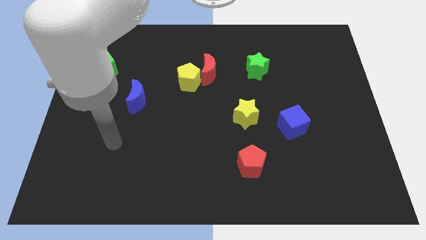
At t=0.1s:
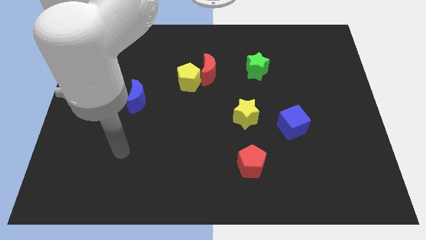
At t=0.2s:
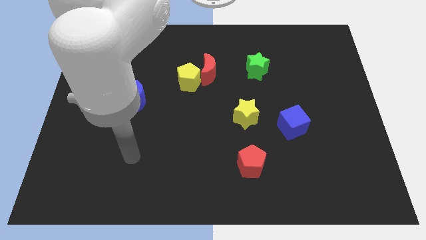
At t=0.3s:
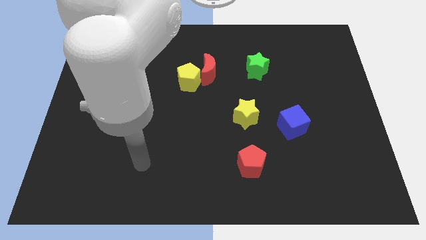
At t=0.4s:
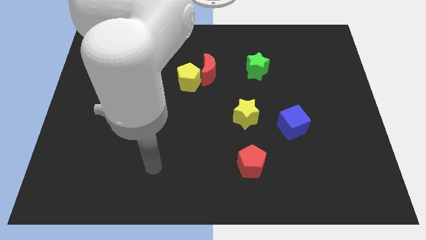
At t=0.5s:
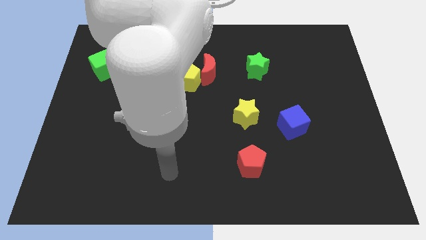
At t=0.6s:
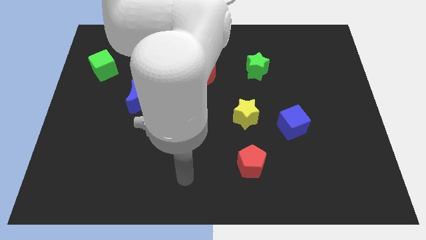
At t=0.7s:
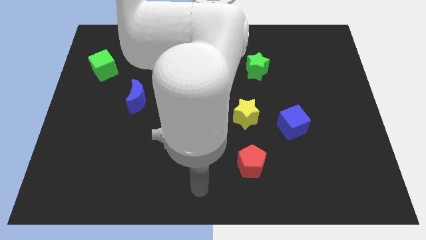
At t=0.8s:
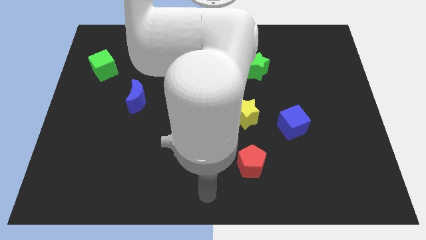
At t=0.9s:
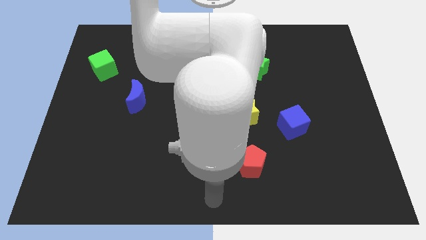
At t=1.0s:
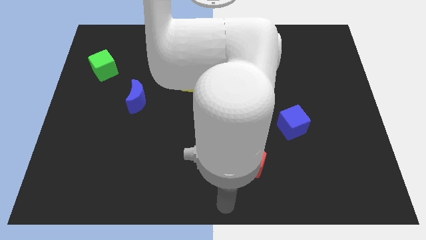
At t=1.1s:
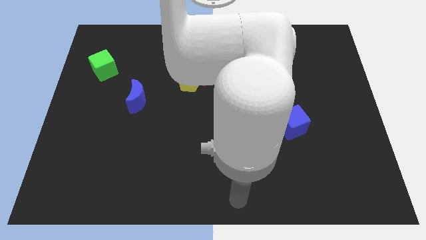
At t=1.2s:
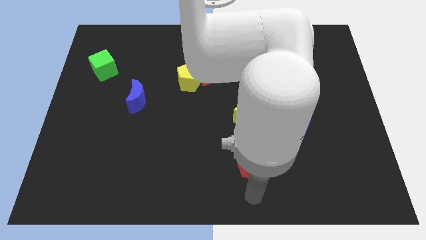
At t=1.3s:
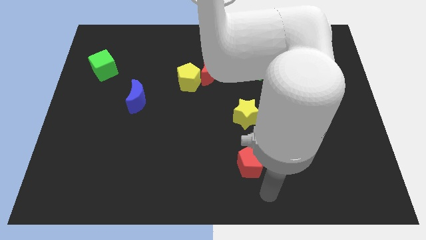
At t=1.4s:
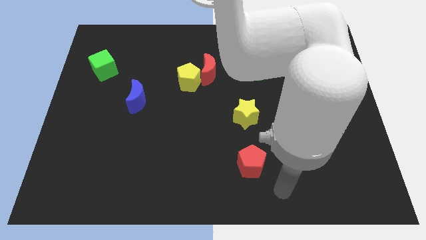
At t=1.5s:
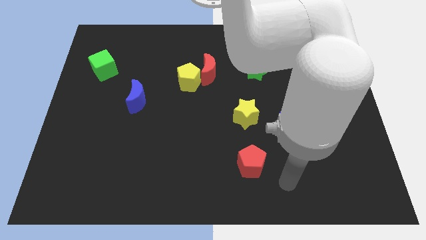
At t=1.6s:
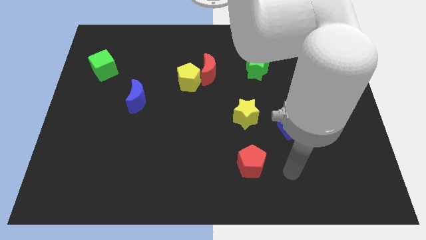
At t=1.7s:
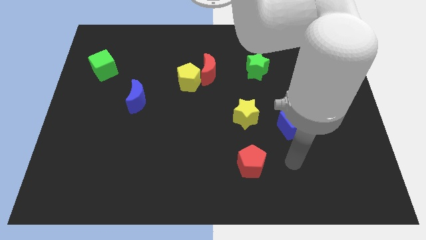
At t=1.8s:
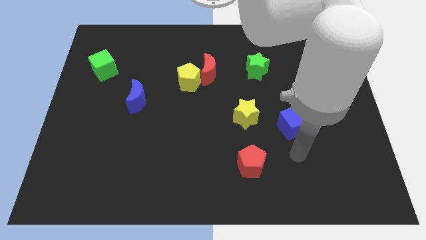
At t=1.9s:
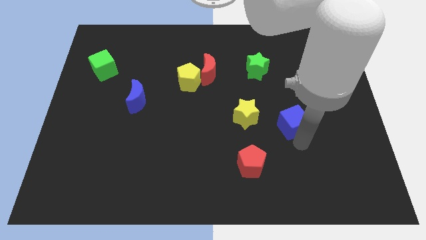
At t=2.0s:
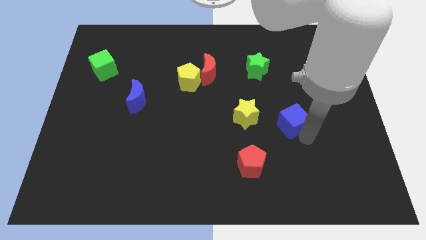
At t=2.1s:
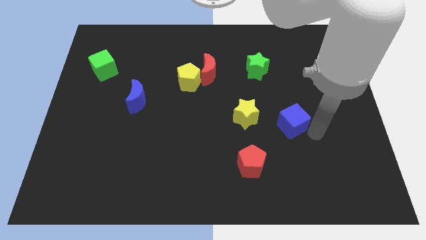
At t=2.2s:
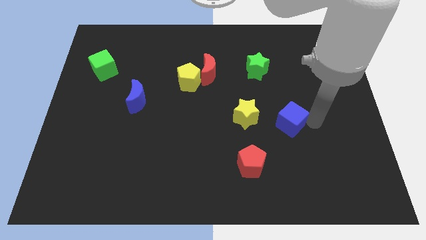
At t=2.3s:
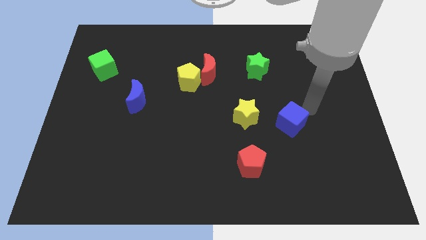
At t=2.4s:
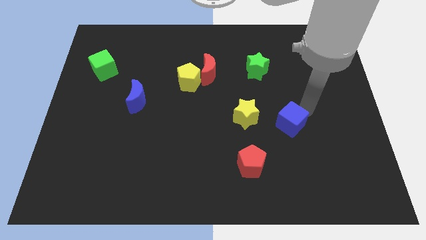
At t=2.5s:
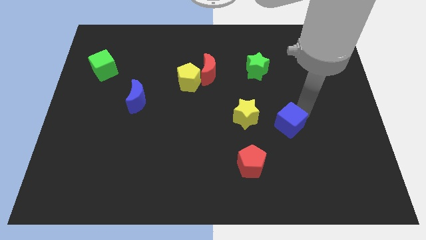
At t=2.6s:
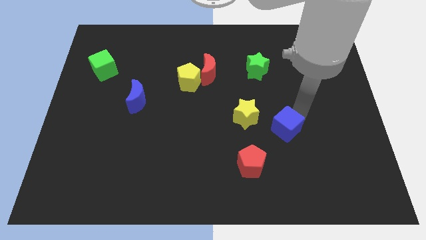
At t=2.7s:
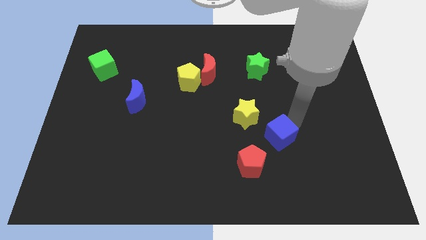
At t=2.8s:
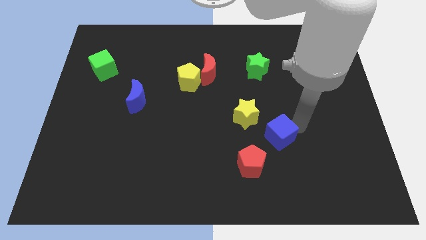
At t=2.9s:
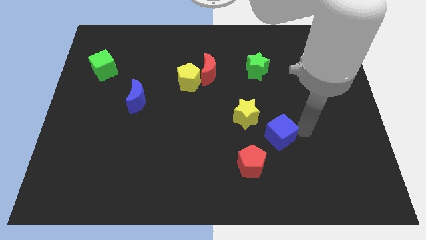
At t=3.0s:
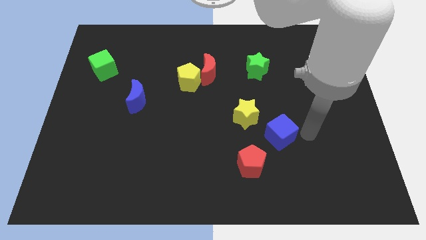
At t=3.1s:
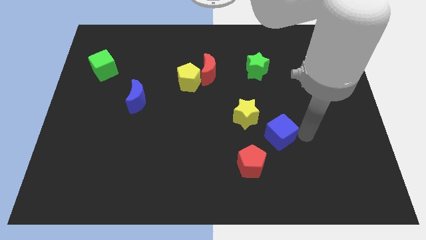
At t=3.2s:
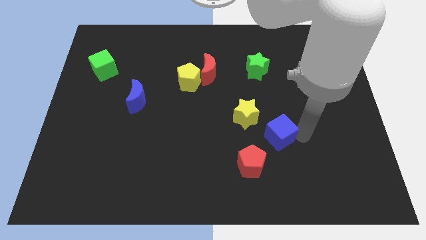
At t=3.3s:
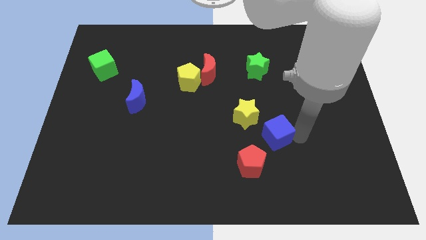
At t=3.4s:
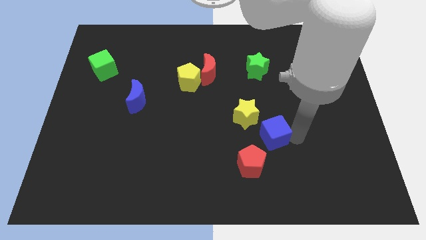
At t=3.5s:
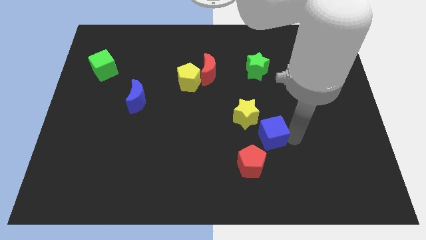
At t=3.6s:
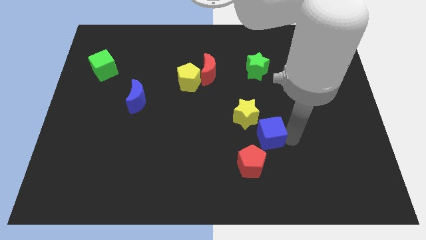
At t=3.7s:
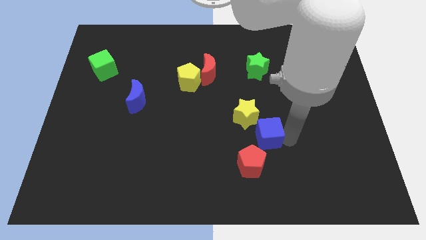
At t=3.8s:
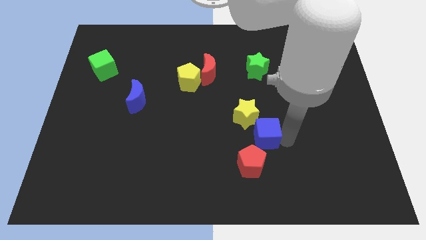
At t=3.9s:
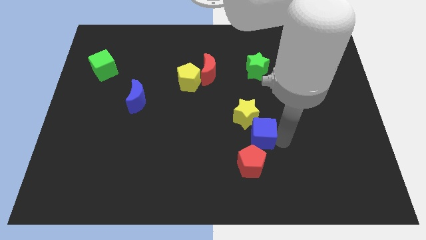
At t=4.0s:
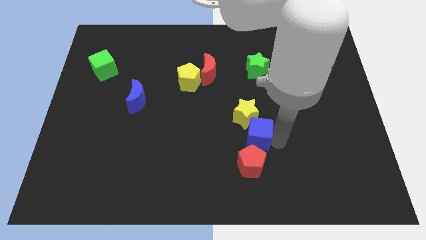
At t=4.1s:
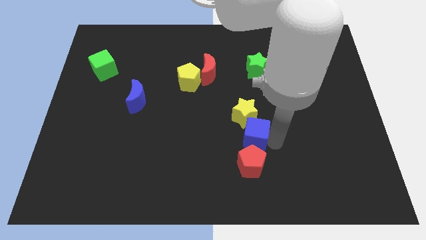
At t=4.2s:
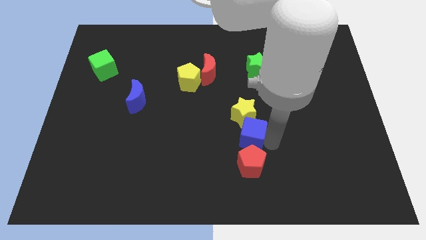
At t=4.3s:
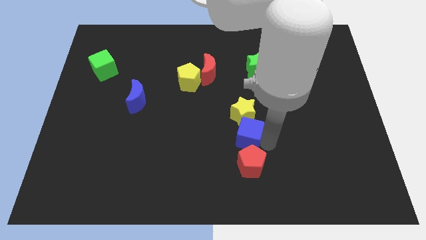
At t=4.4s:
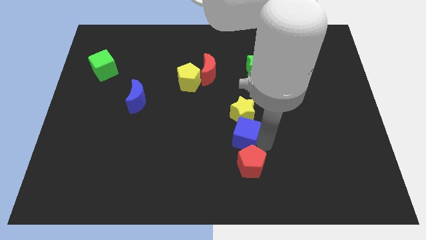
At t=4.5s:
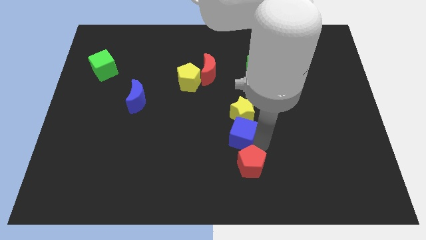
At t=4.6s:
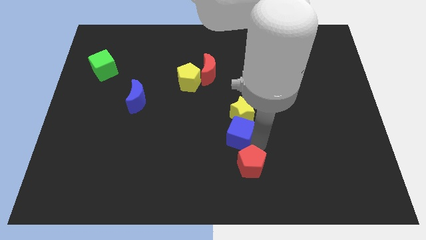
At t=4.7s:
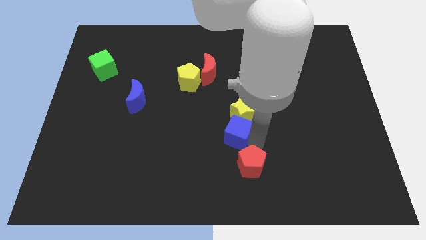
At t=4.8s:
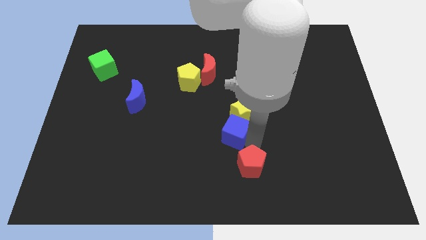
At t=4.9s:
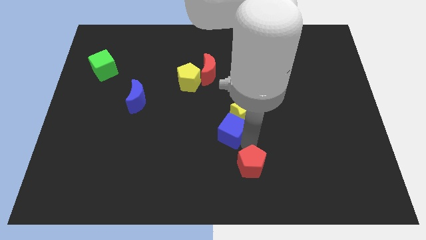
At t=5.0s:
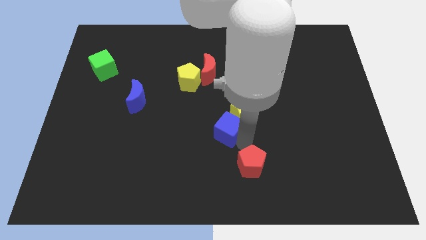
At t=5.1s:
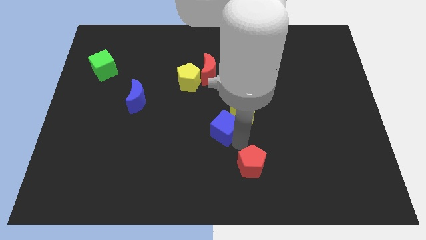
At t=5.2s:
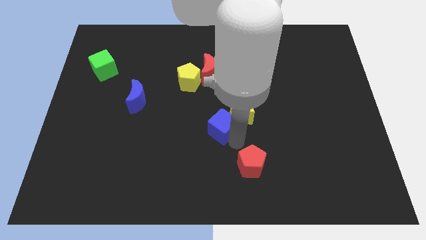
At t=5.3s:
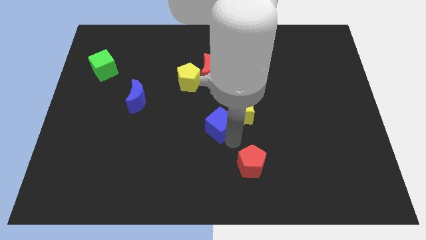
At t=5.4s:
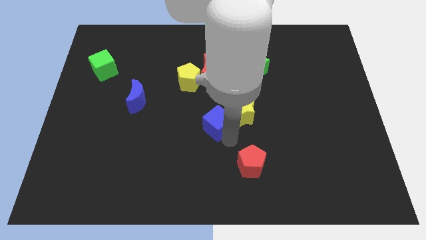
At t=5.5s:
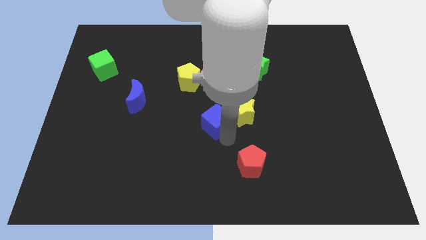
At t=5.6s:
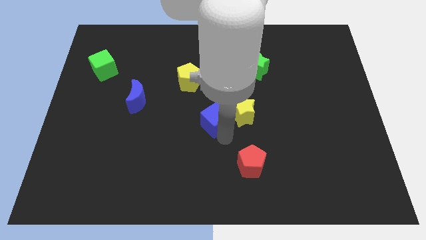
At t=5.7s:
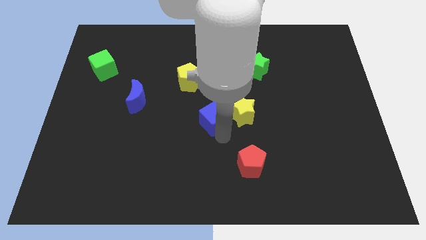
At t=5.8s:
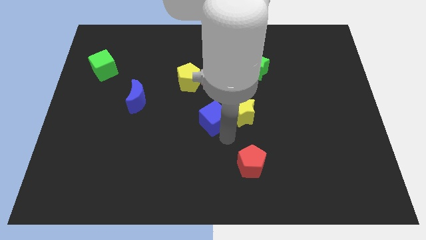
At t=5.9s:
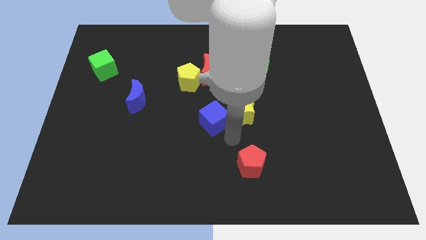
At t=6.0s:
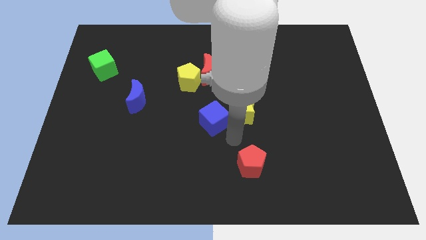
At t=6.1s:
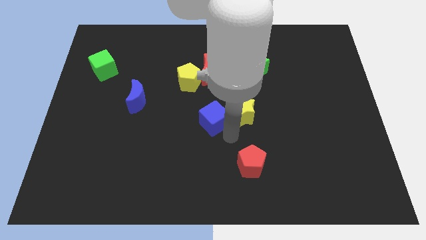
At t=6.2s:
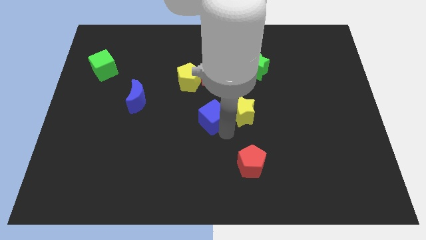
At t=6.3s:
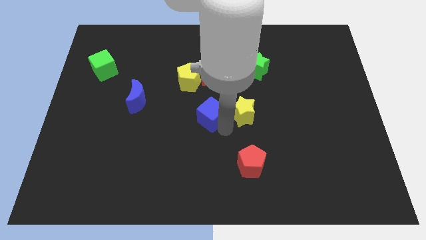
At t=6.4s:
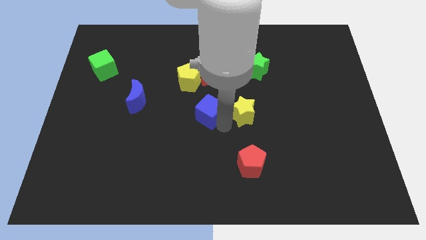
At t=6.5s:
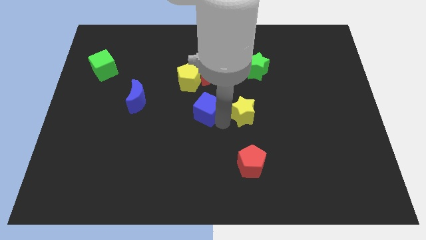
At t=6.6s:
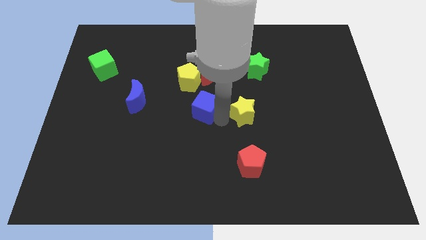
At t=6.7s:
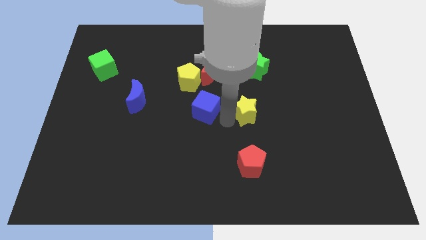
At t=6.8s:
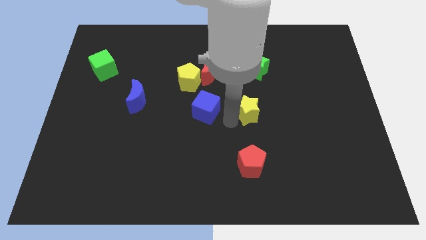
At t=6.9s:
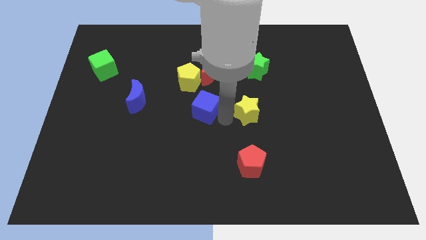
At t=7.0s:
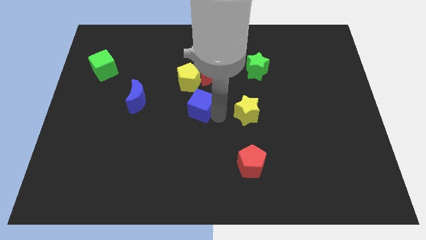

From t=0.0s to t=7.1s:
slide the blue cube to the right of the blue moon

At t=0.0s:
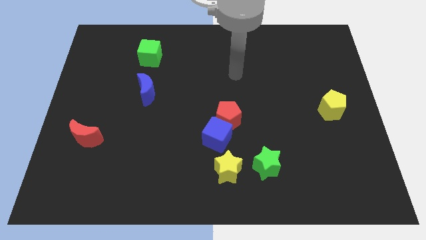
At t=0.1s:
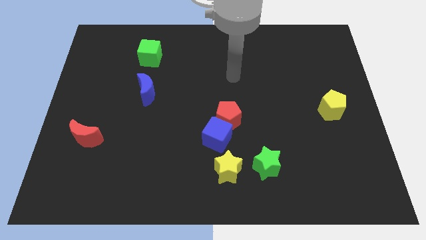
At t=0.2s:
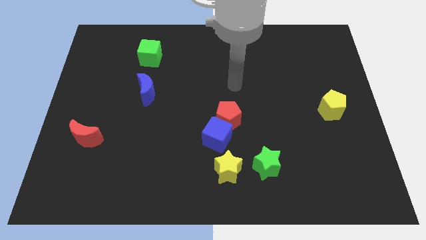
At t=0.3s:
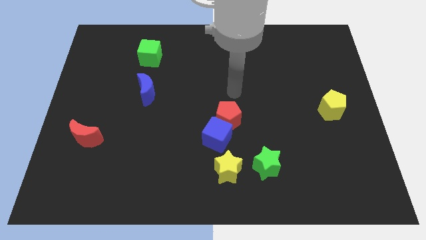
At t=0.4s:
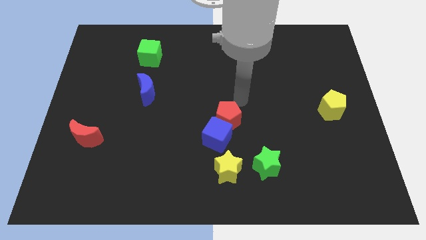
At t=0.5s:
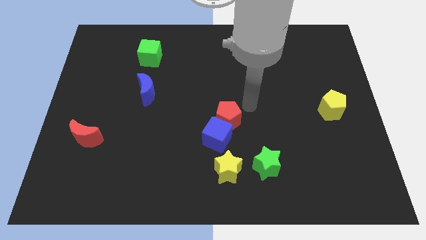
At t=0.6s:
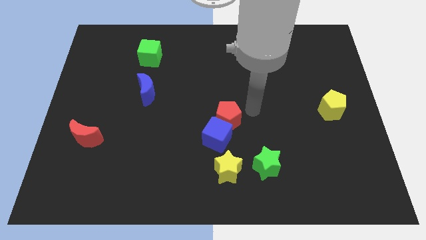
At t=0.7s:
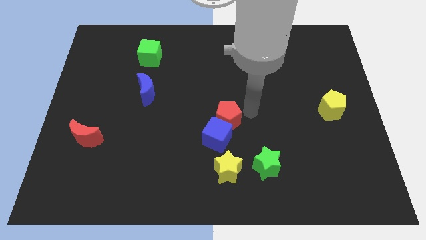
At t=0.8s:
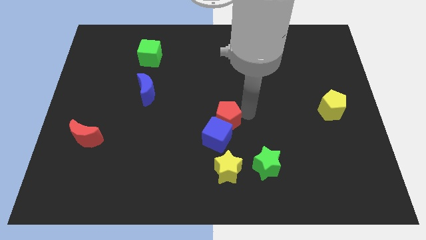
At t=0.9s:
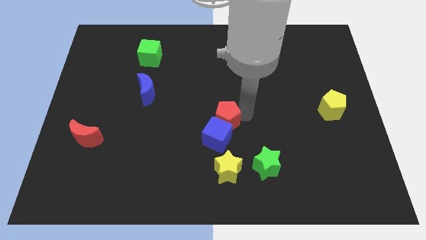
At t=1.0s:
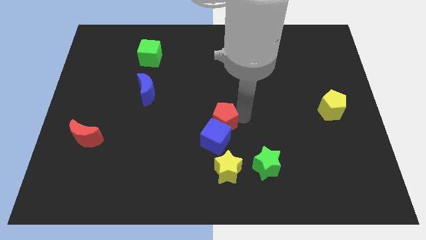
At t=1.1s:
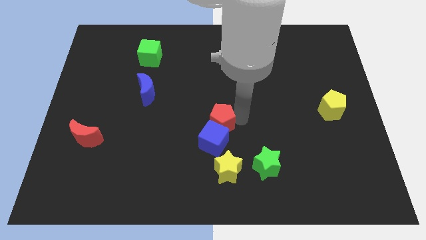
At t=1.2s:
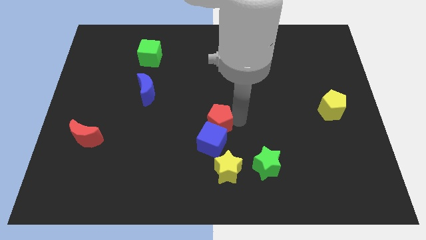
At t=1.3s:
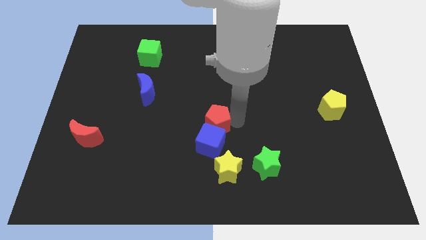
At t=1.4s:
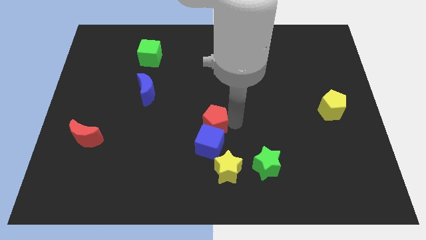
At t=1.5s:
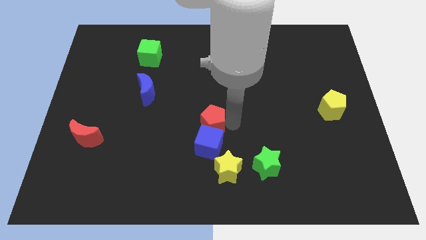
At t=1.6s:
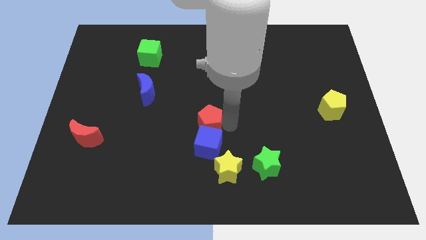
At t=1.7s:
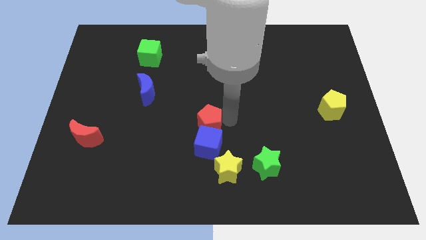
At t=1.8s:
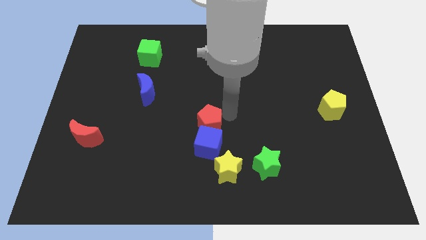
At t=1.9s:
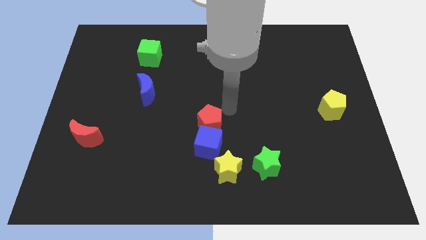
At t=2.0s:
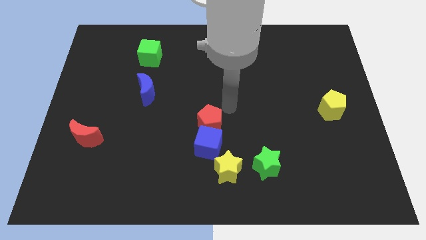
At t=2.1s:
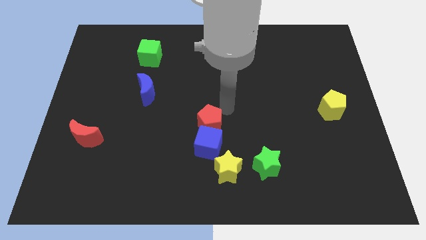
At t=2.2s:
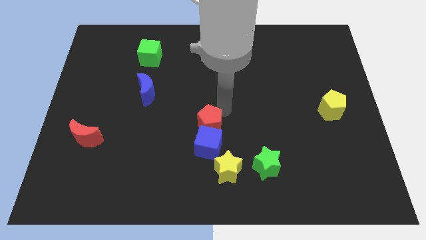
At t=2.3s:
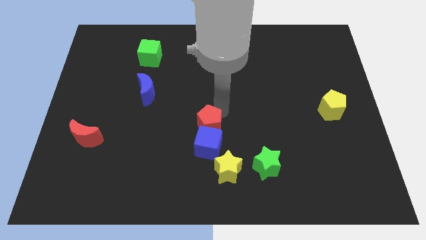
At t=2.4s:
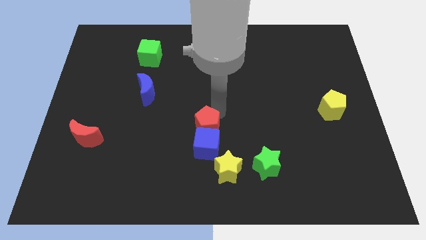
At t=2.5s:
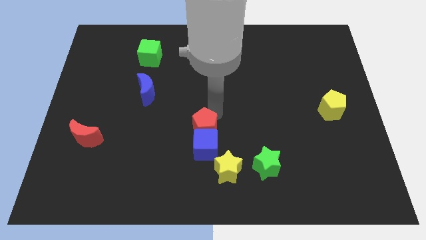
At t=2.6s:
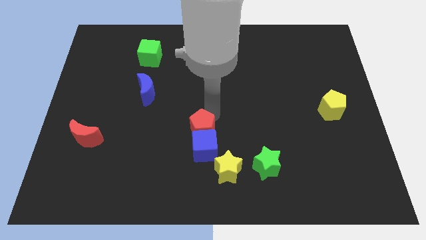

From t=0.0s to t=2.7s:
push the red pentagon to the top left side of the yellow star
